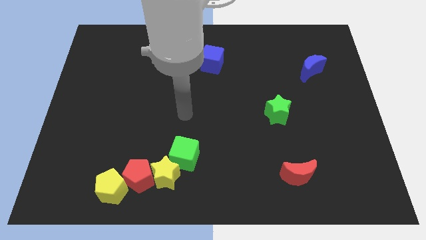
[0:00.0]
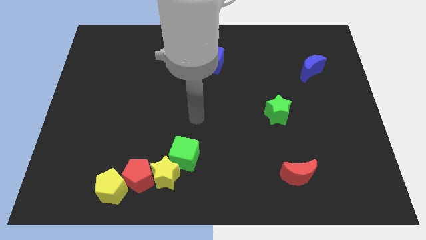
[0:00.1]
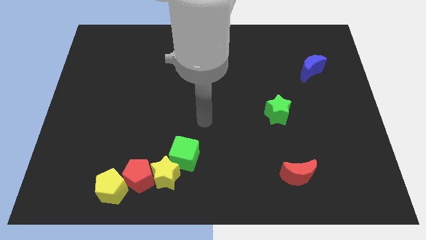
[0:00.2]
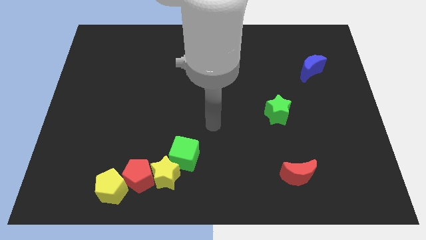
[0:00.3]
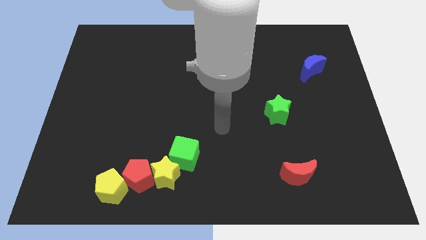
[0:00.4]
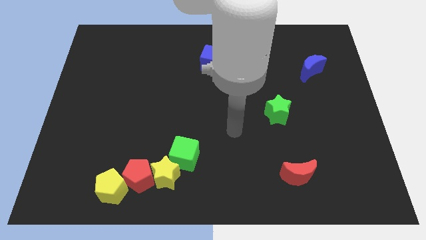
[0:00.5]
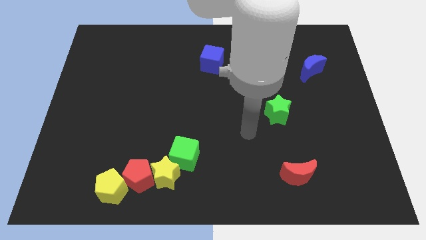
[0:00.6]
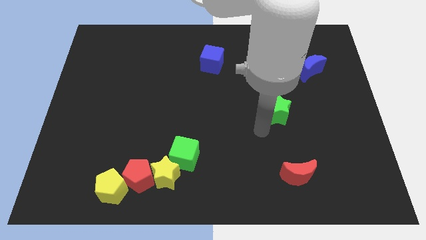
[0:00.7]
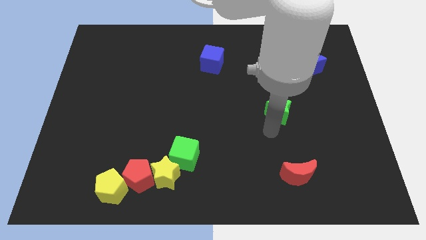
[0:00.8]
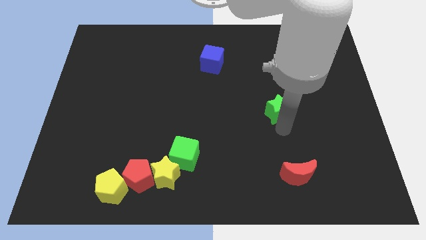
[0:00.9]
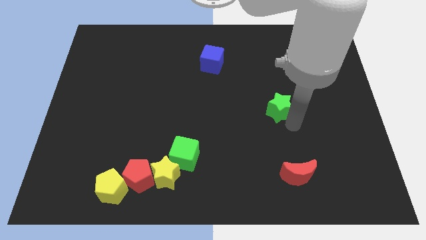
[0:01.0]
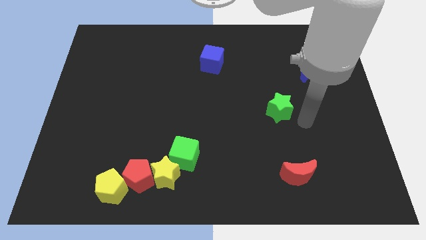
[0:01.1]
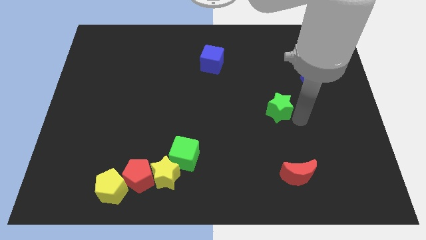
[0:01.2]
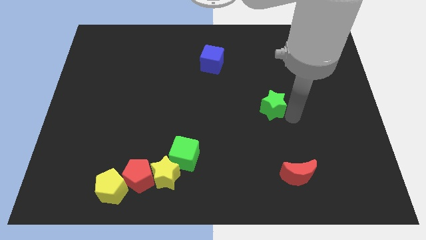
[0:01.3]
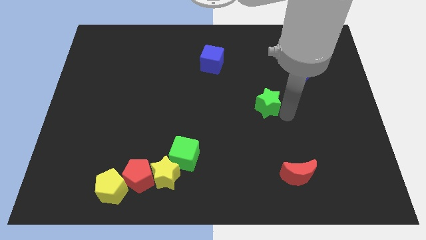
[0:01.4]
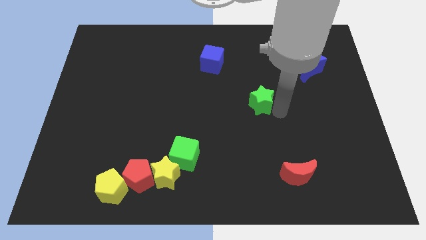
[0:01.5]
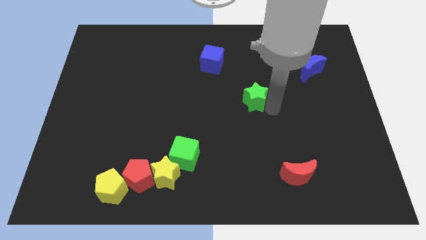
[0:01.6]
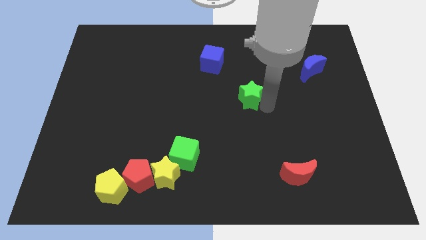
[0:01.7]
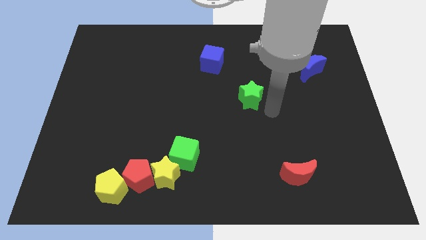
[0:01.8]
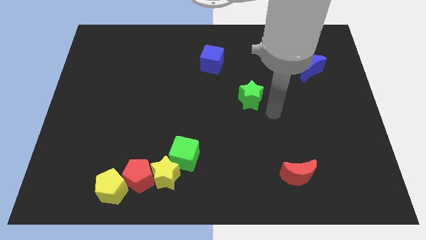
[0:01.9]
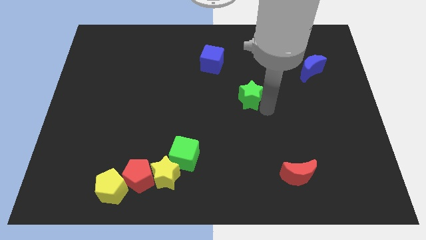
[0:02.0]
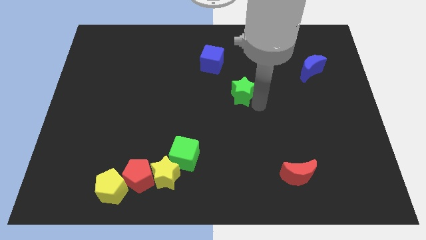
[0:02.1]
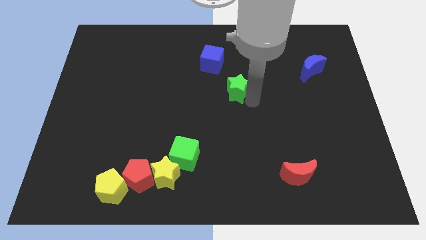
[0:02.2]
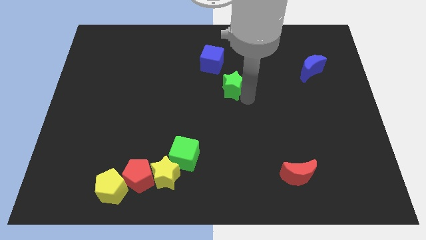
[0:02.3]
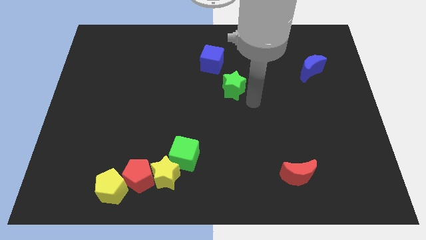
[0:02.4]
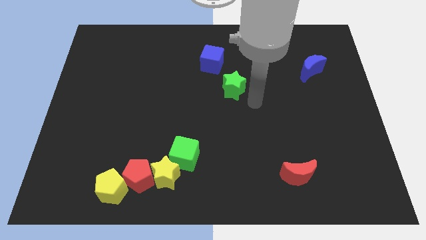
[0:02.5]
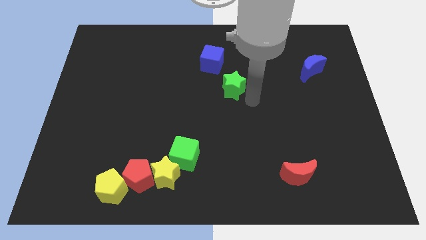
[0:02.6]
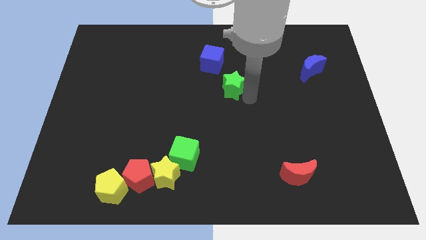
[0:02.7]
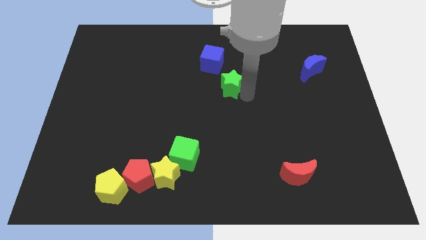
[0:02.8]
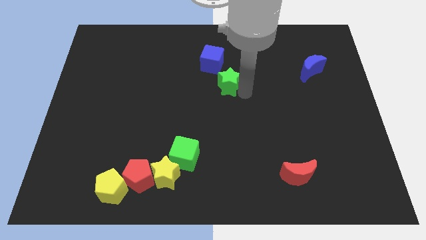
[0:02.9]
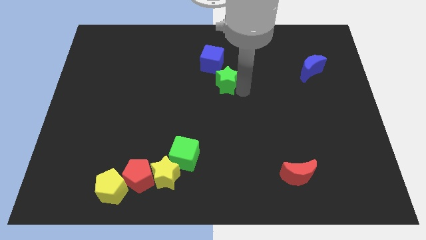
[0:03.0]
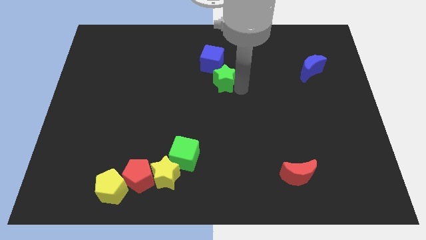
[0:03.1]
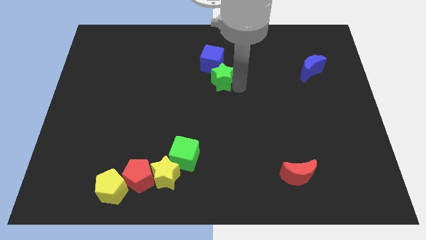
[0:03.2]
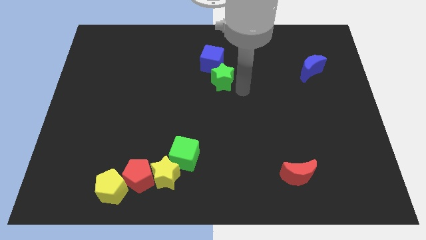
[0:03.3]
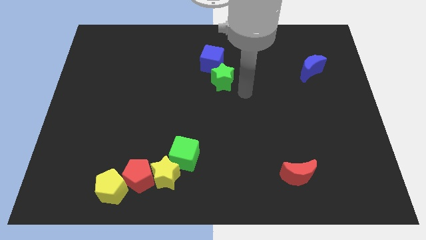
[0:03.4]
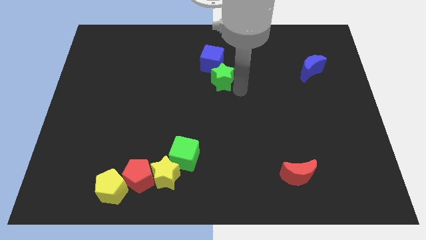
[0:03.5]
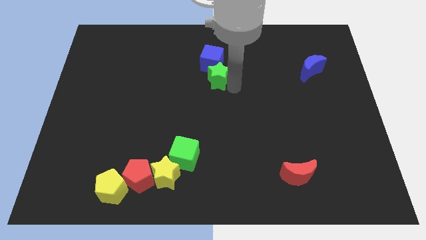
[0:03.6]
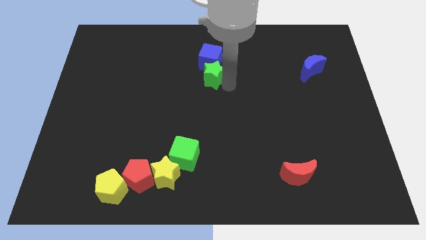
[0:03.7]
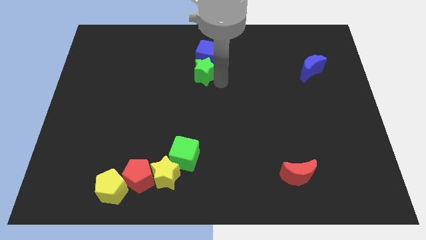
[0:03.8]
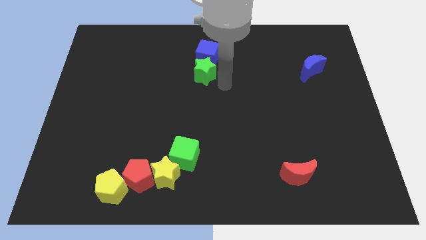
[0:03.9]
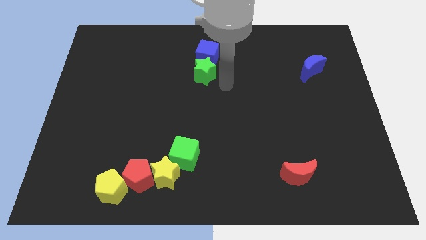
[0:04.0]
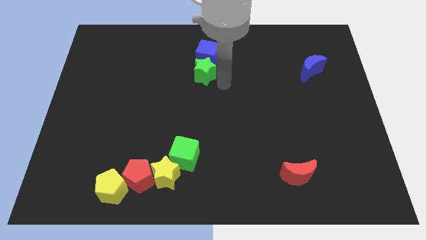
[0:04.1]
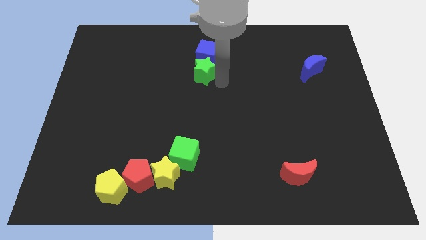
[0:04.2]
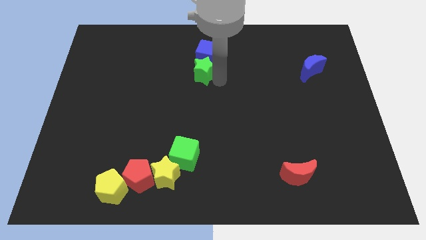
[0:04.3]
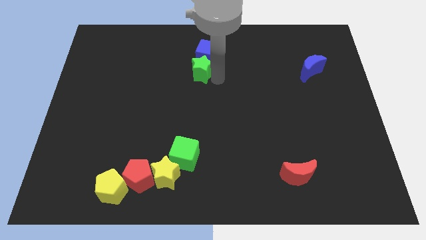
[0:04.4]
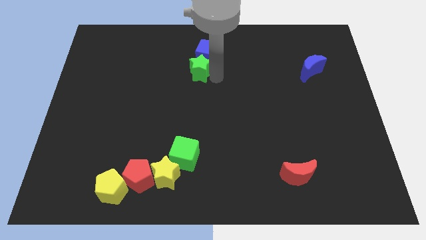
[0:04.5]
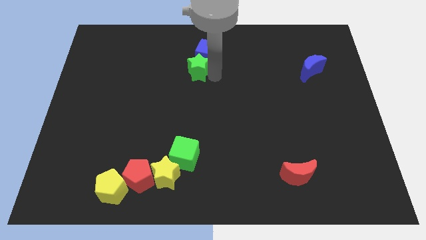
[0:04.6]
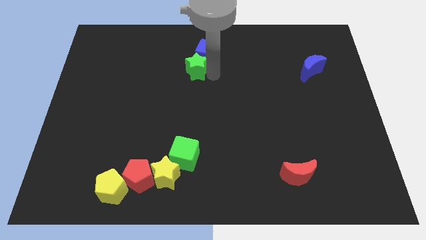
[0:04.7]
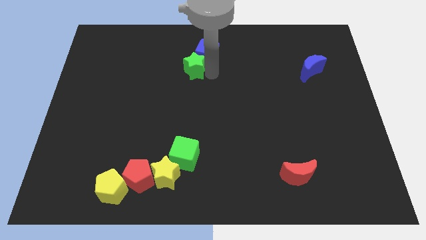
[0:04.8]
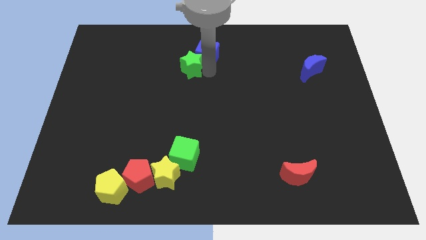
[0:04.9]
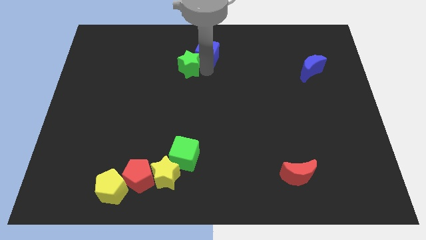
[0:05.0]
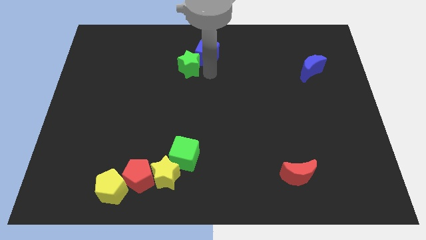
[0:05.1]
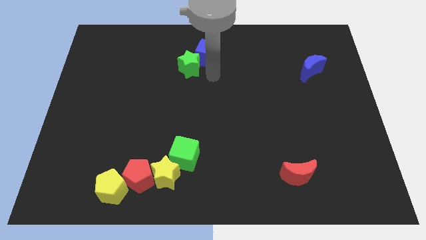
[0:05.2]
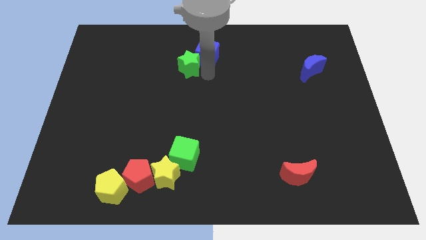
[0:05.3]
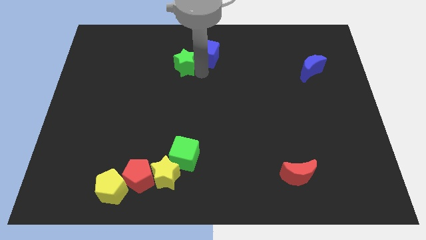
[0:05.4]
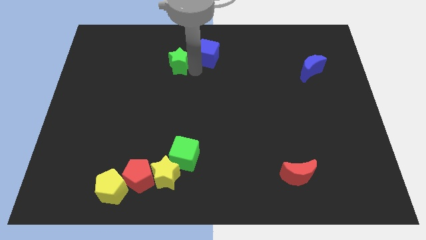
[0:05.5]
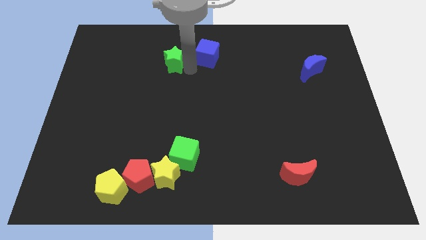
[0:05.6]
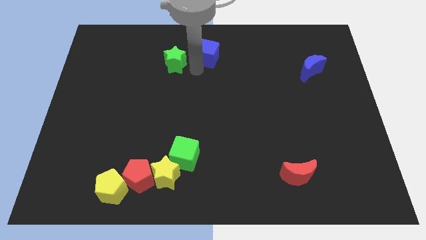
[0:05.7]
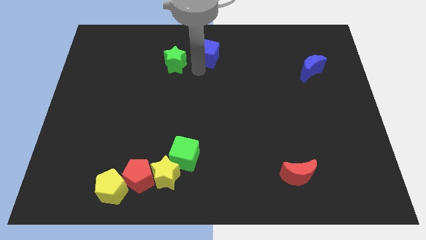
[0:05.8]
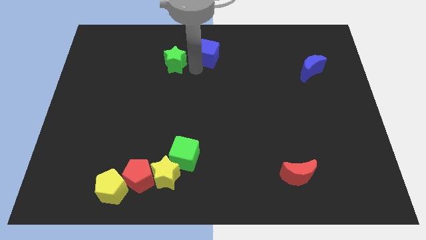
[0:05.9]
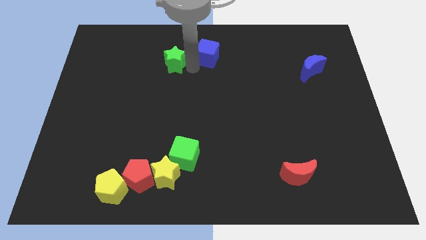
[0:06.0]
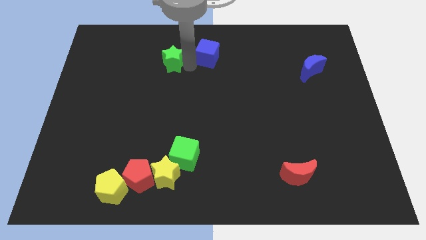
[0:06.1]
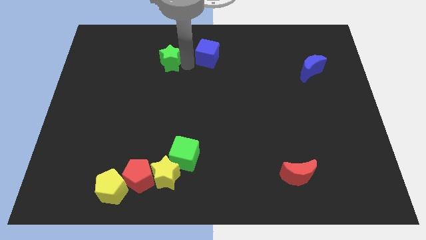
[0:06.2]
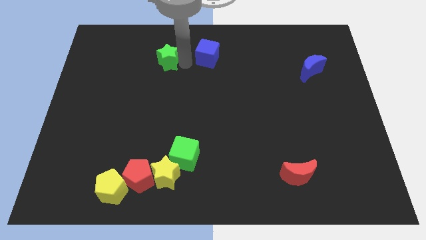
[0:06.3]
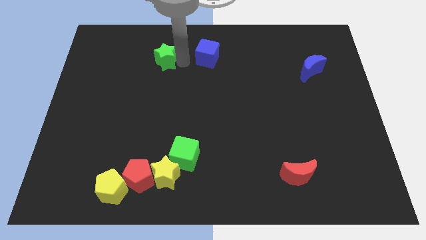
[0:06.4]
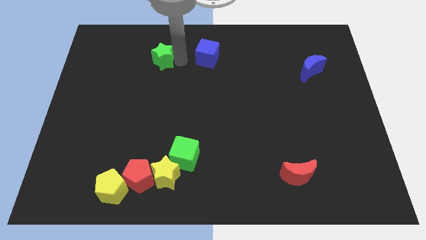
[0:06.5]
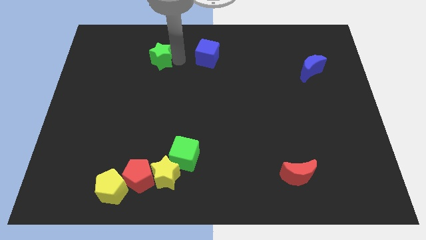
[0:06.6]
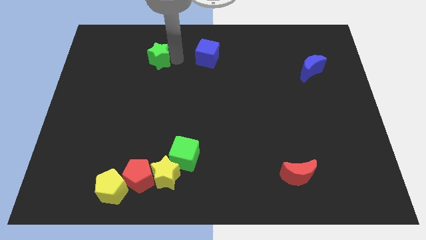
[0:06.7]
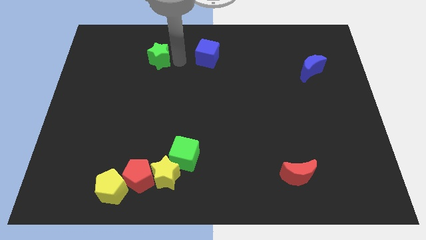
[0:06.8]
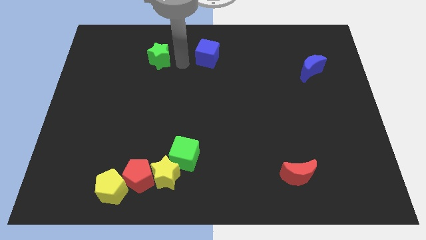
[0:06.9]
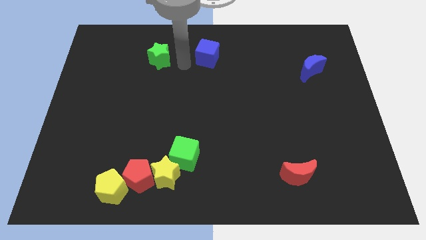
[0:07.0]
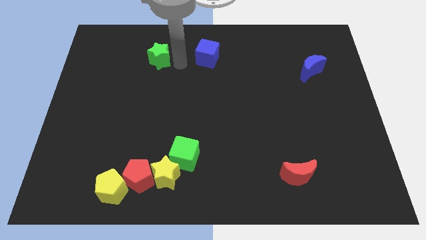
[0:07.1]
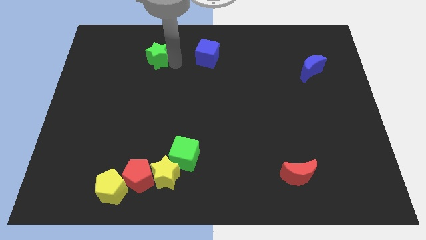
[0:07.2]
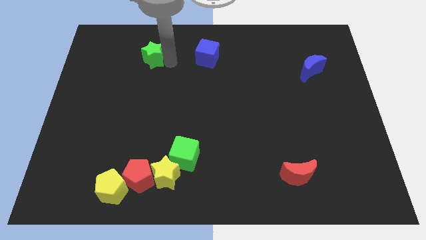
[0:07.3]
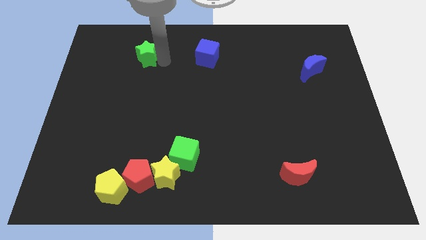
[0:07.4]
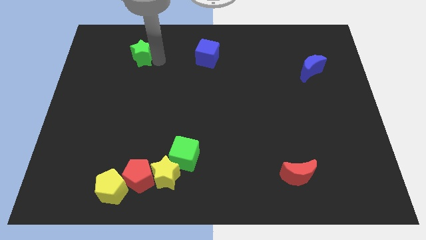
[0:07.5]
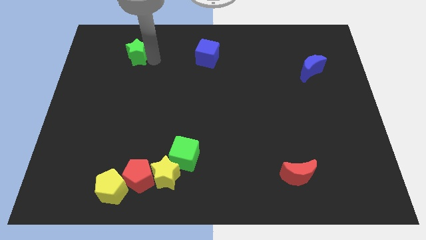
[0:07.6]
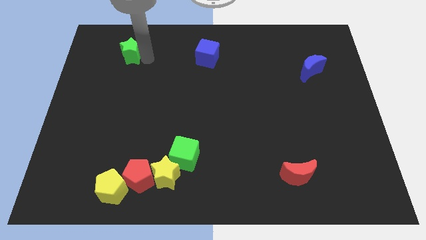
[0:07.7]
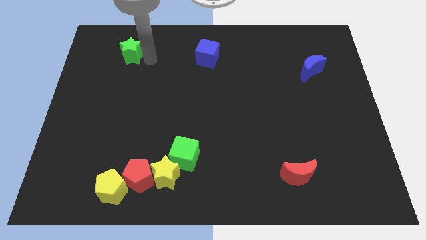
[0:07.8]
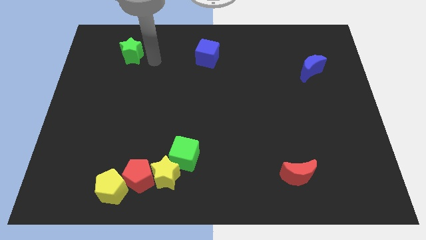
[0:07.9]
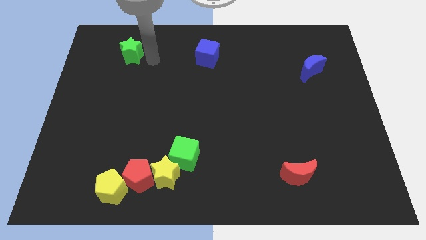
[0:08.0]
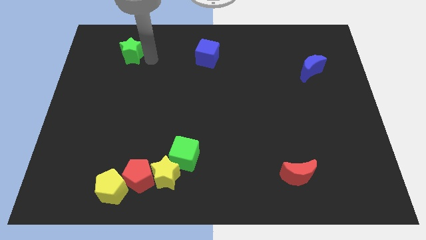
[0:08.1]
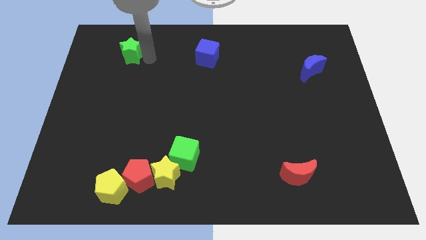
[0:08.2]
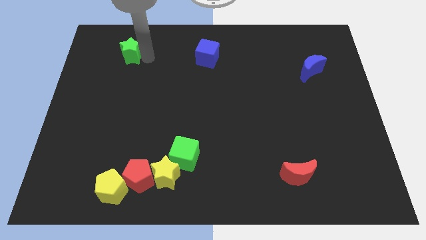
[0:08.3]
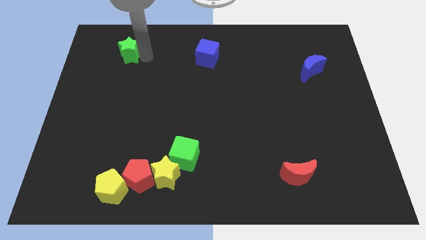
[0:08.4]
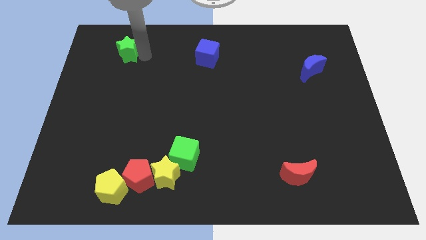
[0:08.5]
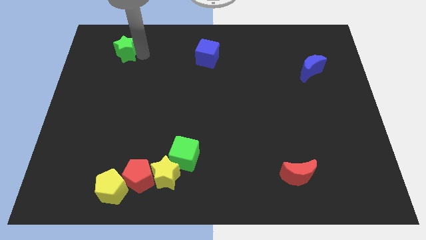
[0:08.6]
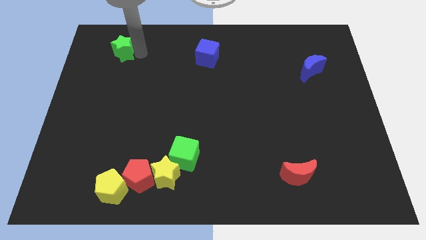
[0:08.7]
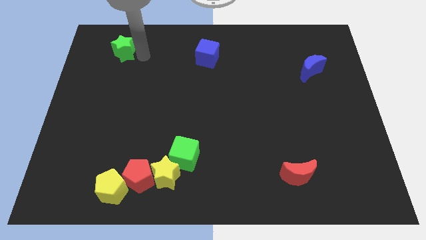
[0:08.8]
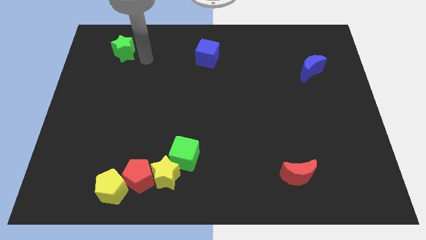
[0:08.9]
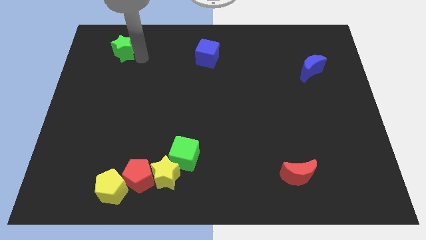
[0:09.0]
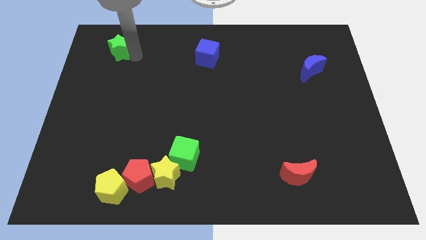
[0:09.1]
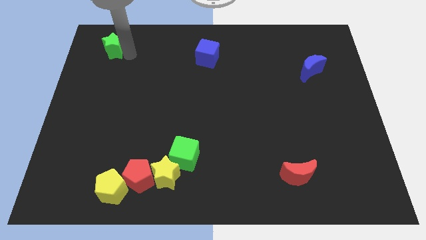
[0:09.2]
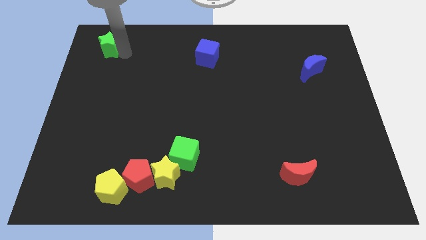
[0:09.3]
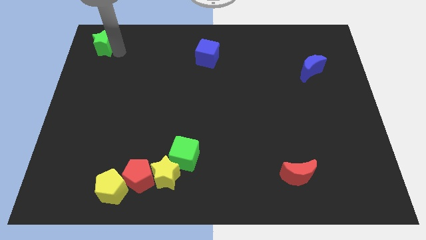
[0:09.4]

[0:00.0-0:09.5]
push the green star to the top left of the board
